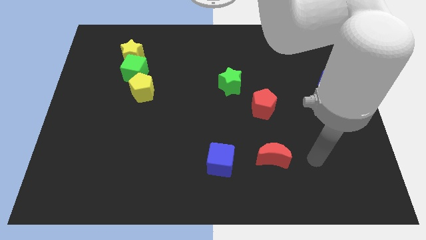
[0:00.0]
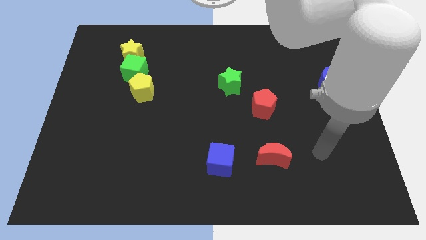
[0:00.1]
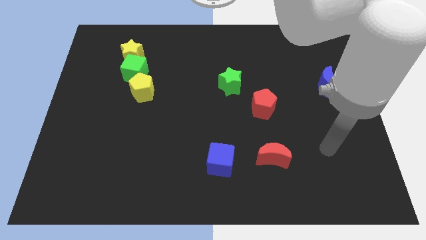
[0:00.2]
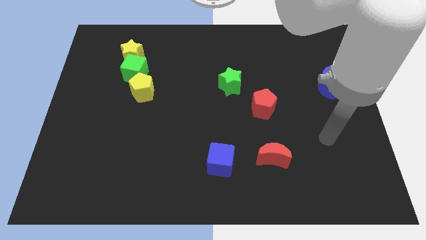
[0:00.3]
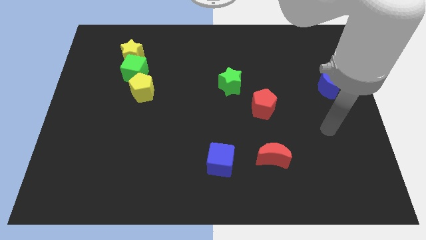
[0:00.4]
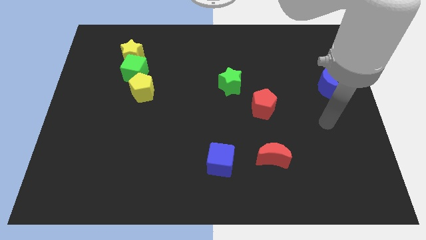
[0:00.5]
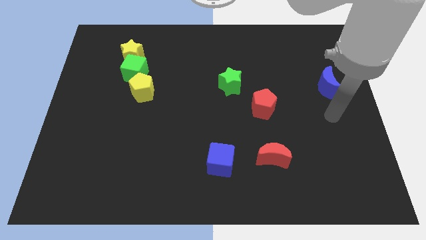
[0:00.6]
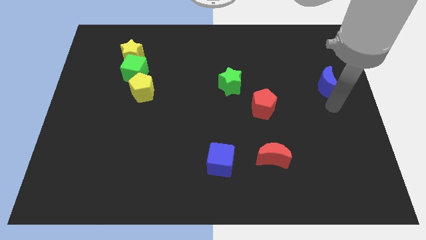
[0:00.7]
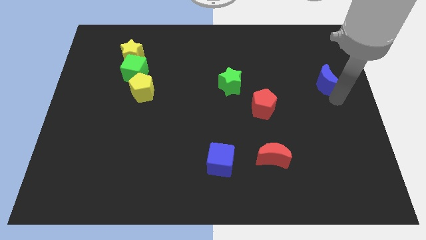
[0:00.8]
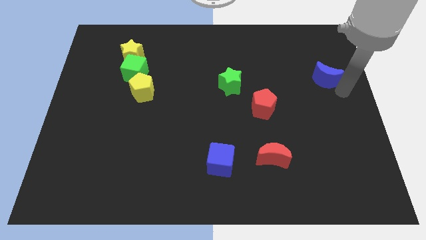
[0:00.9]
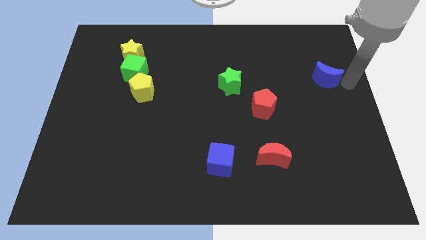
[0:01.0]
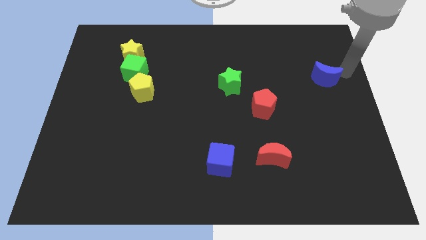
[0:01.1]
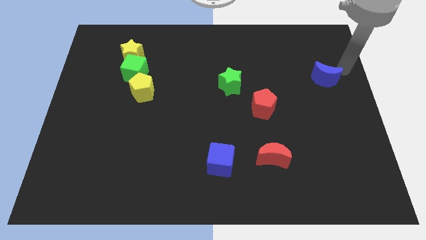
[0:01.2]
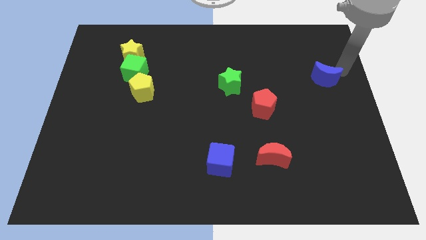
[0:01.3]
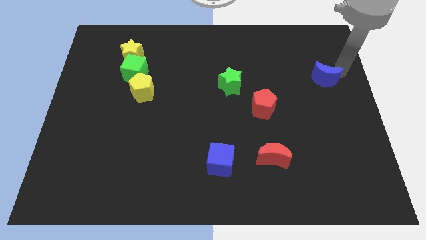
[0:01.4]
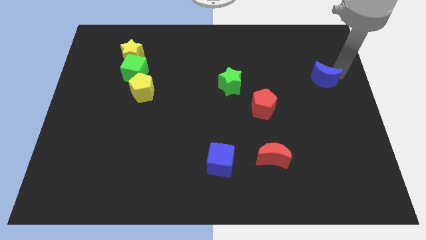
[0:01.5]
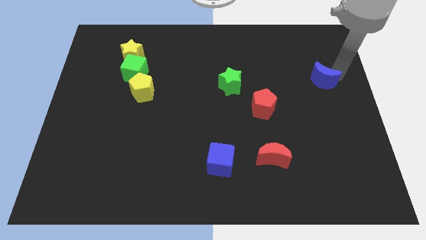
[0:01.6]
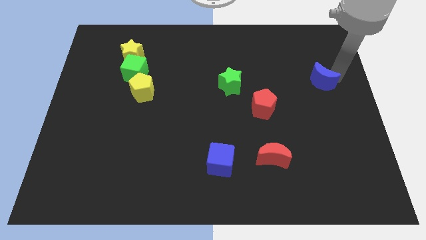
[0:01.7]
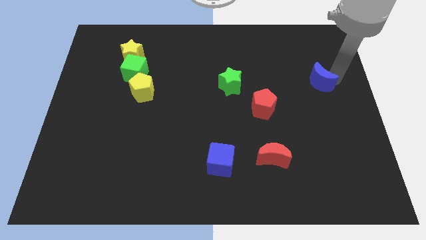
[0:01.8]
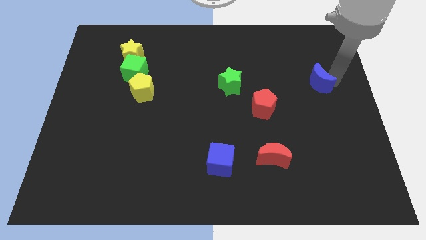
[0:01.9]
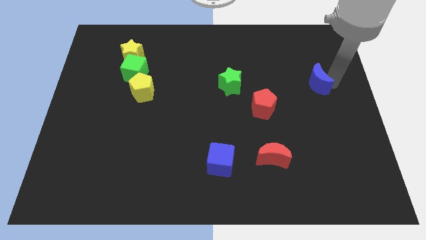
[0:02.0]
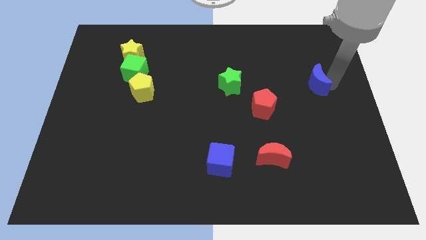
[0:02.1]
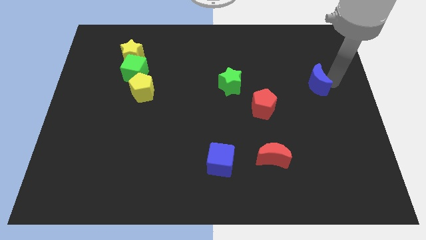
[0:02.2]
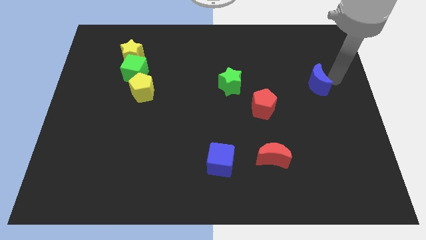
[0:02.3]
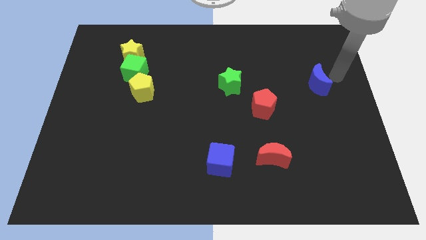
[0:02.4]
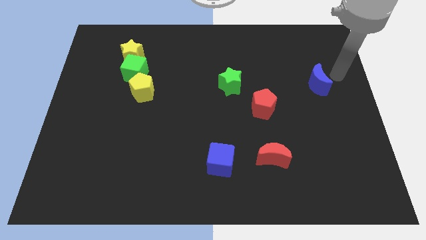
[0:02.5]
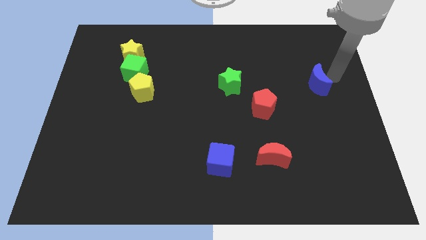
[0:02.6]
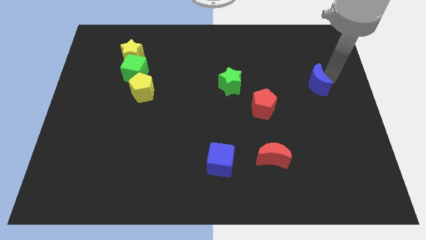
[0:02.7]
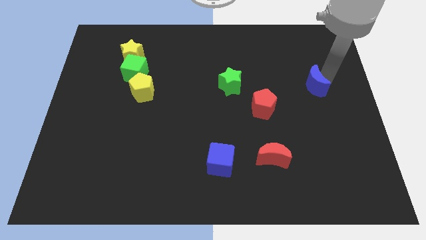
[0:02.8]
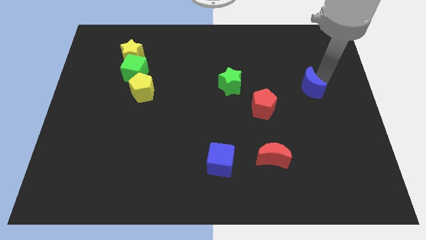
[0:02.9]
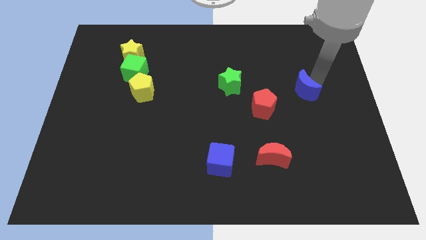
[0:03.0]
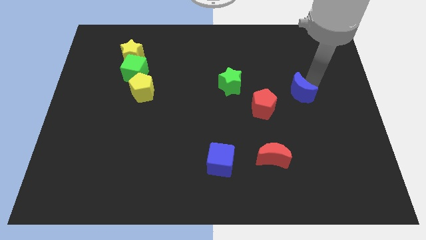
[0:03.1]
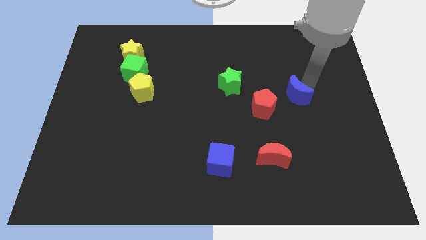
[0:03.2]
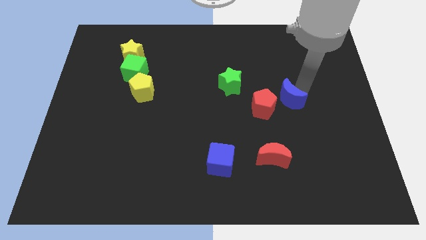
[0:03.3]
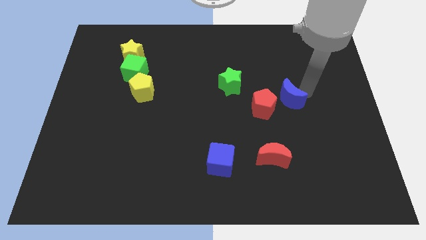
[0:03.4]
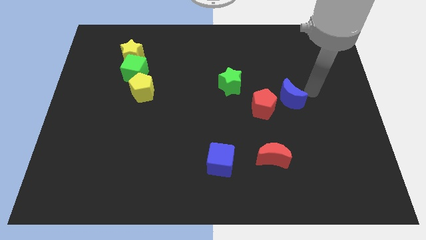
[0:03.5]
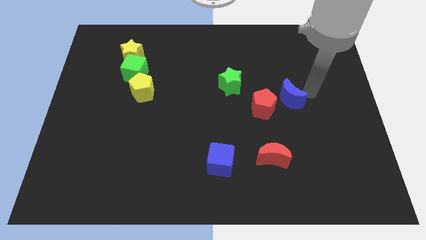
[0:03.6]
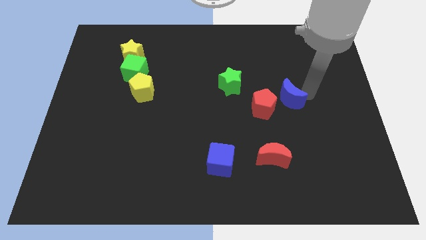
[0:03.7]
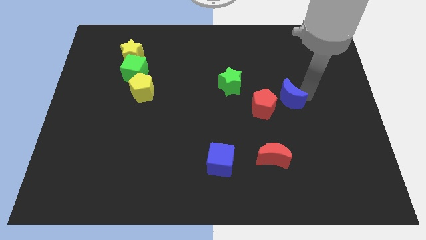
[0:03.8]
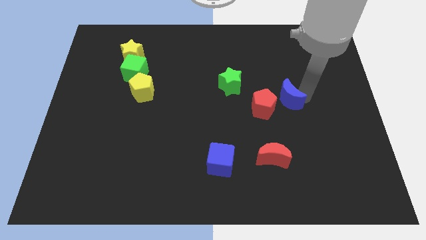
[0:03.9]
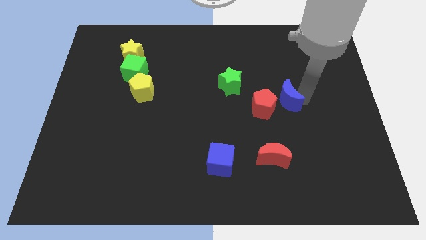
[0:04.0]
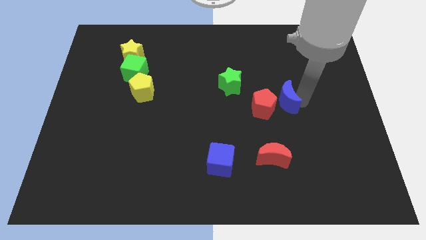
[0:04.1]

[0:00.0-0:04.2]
push the blue moon next to the red pentagon

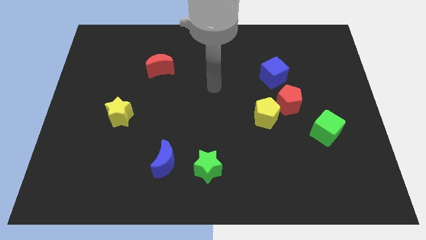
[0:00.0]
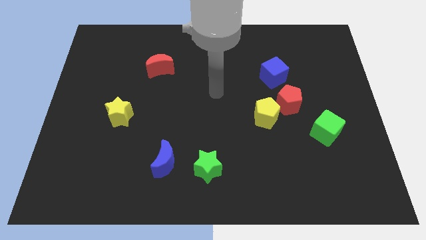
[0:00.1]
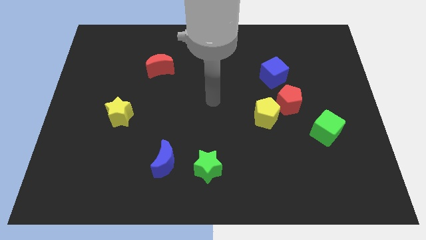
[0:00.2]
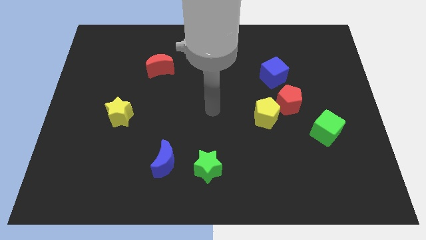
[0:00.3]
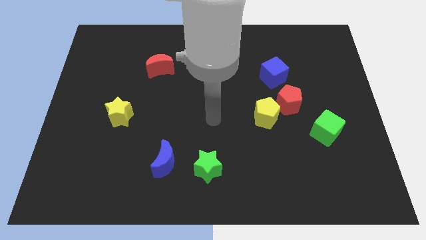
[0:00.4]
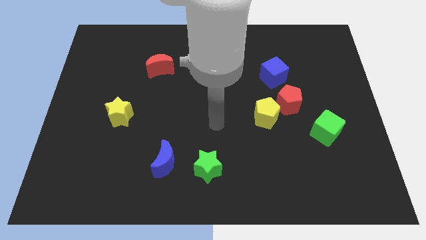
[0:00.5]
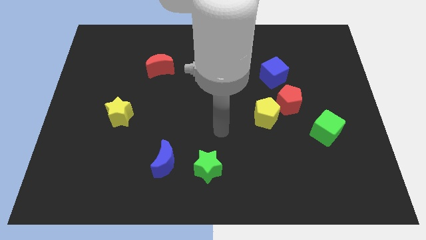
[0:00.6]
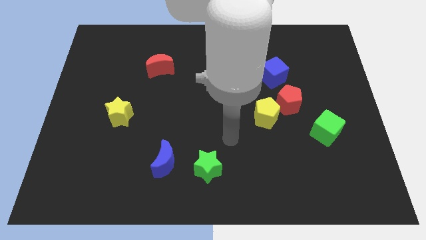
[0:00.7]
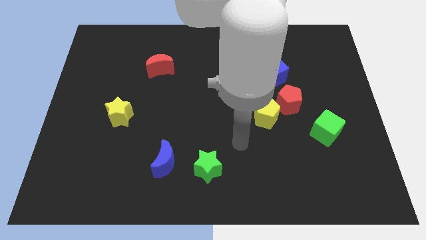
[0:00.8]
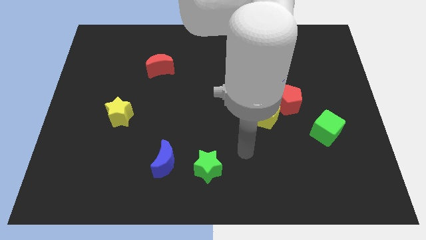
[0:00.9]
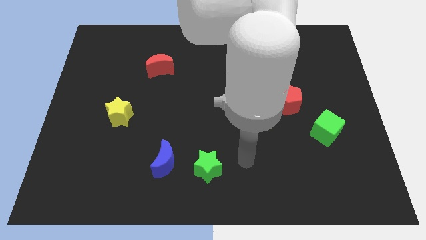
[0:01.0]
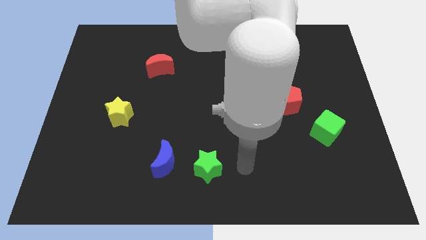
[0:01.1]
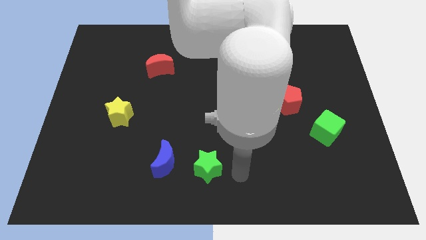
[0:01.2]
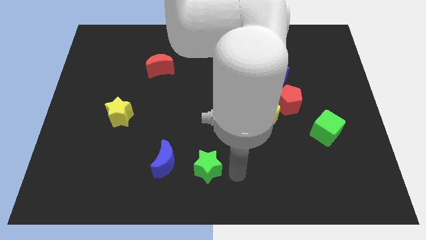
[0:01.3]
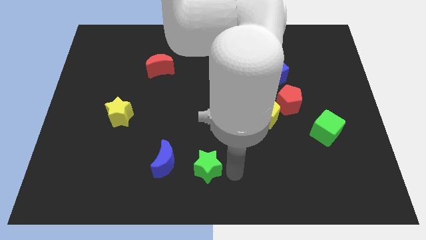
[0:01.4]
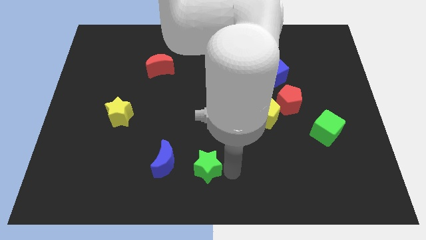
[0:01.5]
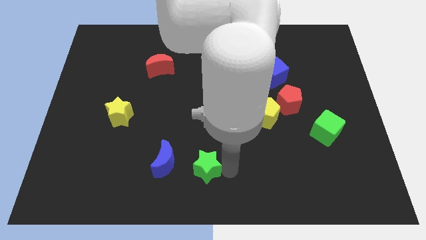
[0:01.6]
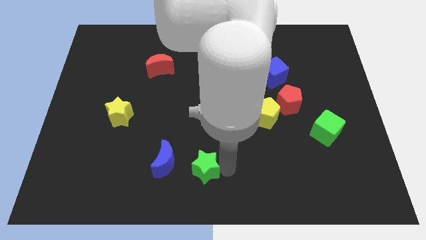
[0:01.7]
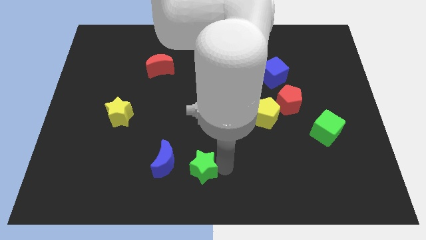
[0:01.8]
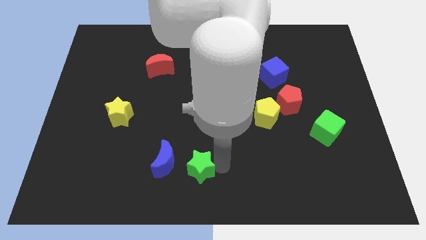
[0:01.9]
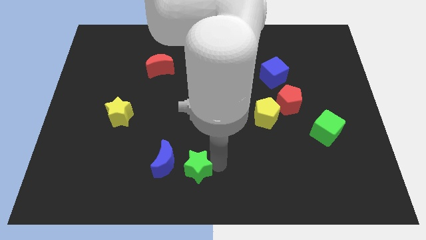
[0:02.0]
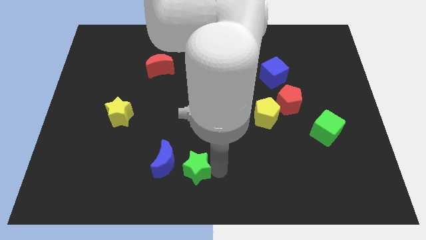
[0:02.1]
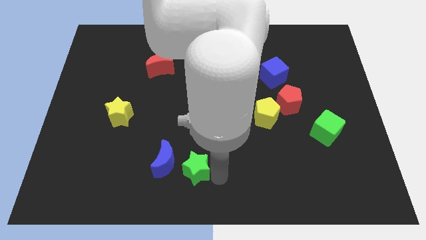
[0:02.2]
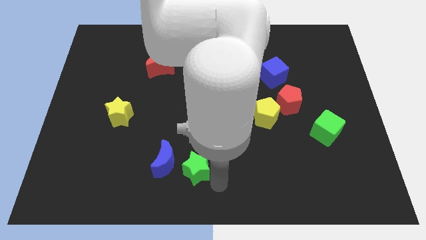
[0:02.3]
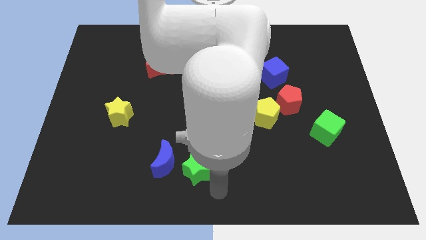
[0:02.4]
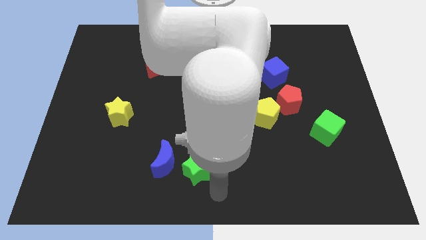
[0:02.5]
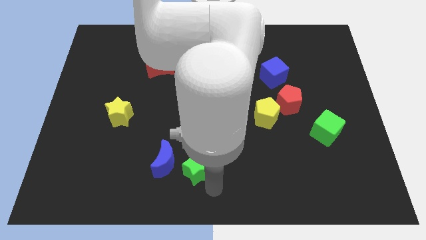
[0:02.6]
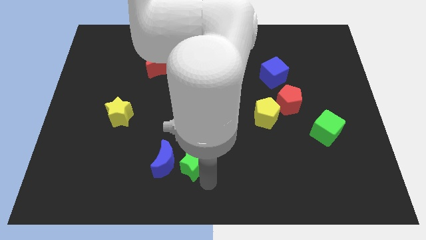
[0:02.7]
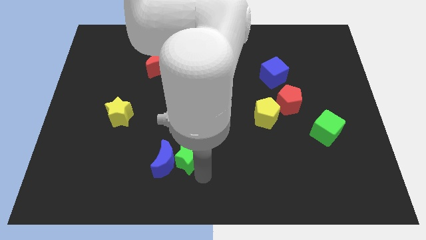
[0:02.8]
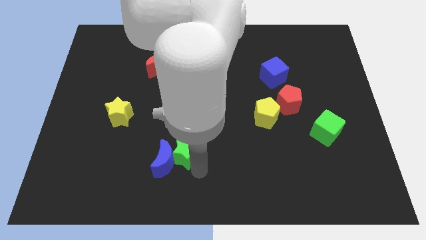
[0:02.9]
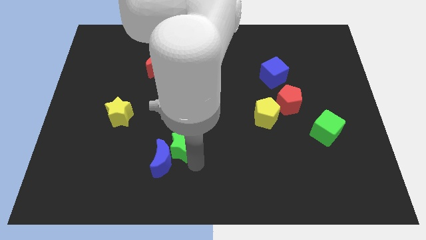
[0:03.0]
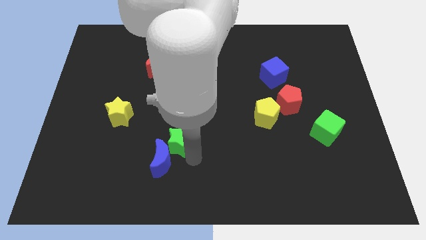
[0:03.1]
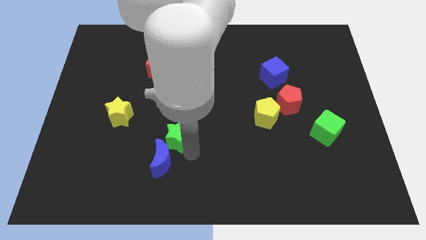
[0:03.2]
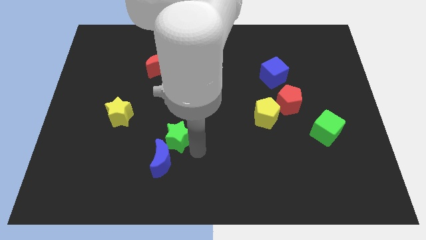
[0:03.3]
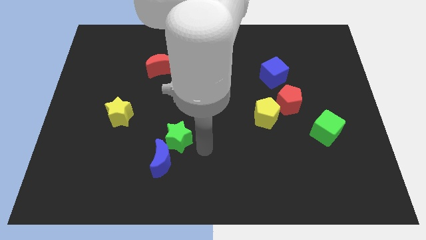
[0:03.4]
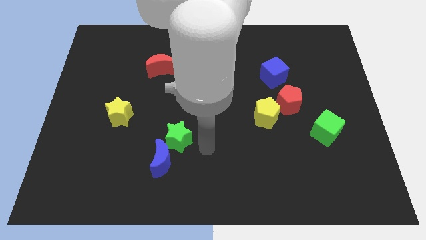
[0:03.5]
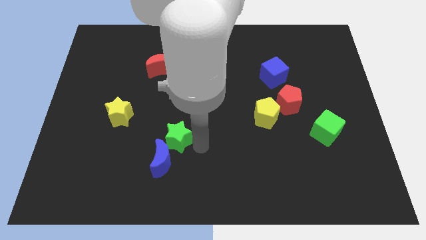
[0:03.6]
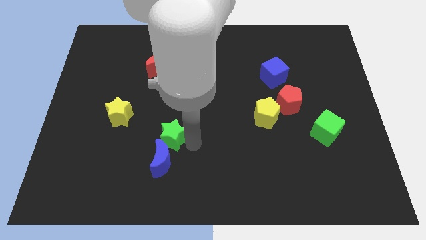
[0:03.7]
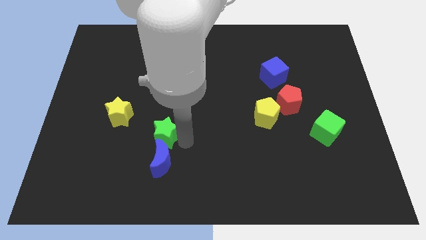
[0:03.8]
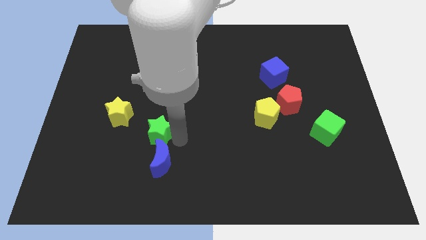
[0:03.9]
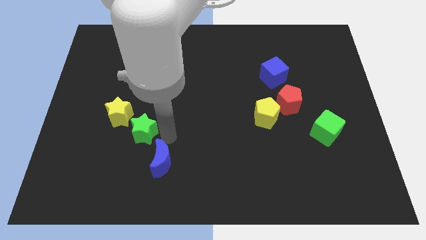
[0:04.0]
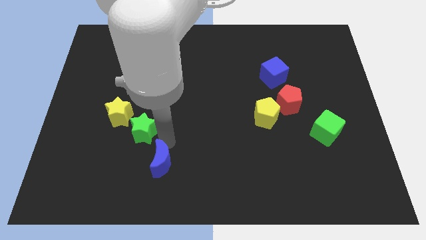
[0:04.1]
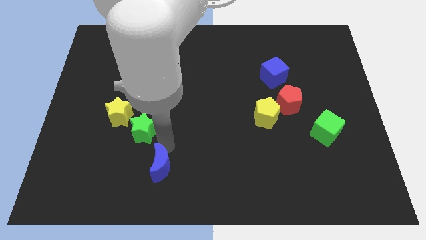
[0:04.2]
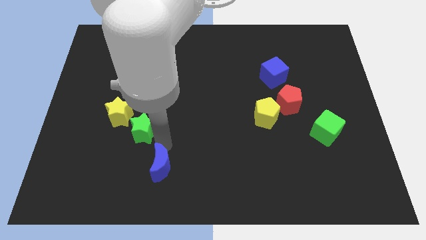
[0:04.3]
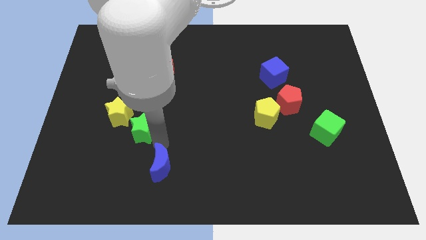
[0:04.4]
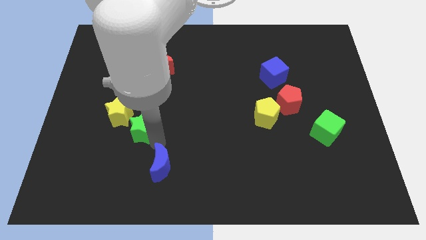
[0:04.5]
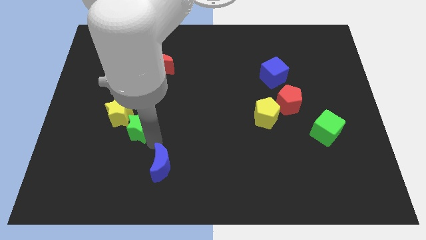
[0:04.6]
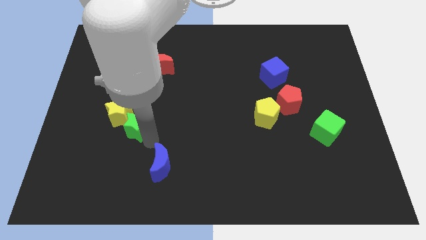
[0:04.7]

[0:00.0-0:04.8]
put the green star next to the yellow star
